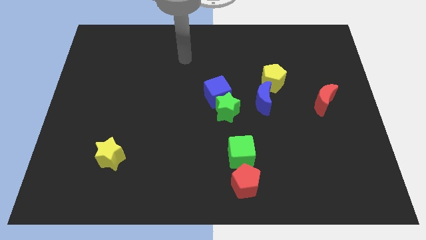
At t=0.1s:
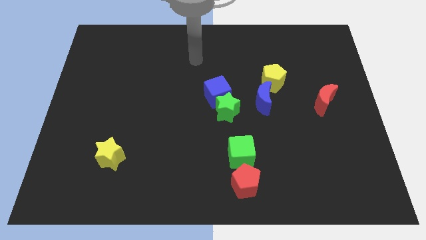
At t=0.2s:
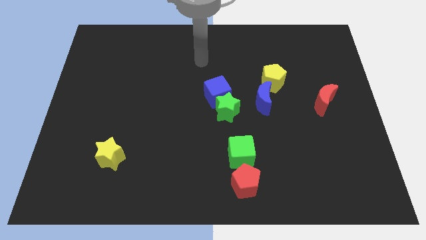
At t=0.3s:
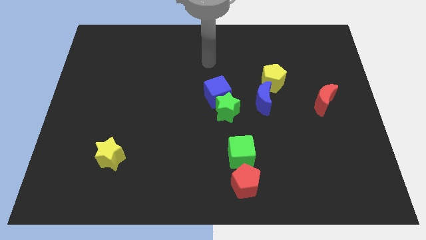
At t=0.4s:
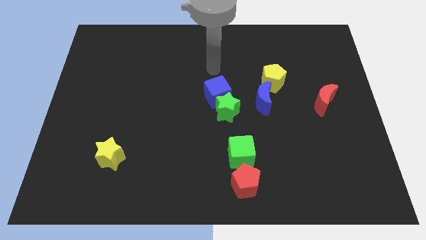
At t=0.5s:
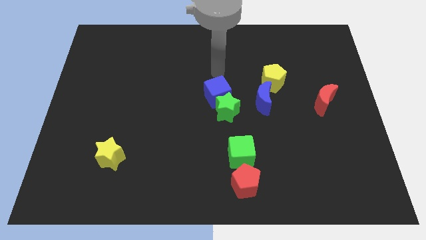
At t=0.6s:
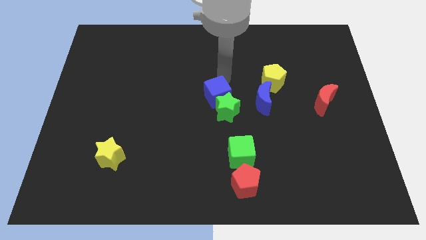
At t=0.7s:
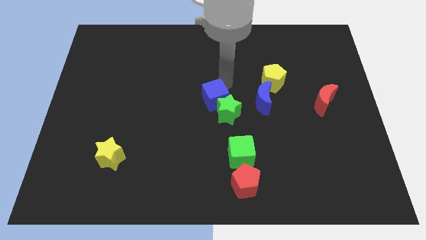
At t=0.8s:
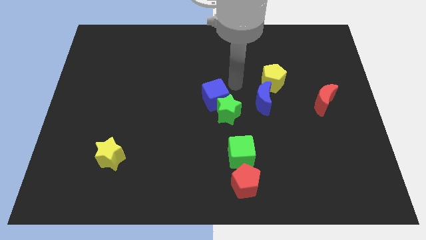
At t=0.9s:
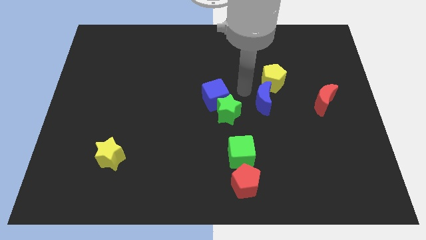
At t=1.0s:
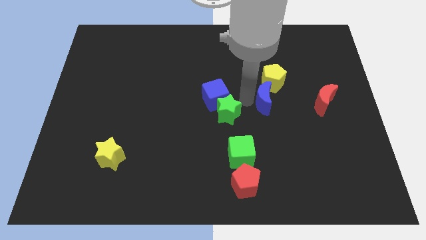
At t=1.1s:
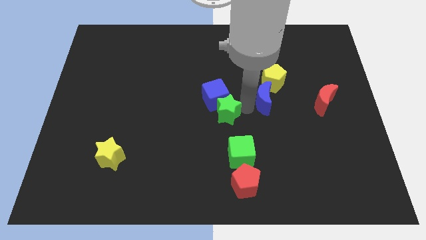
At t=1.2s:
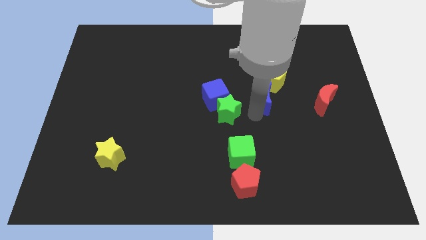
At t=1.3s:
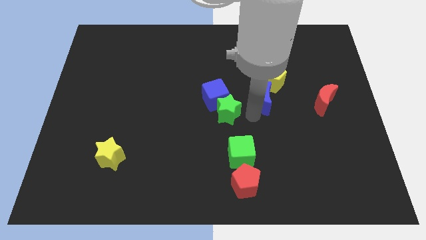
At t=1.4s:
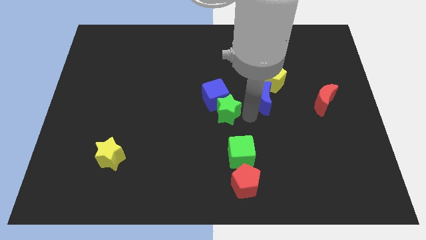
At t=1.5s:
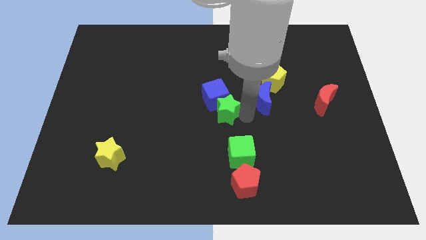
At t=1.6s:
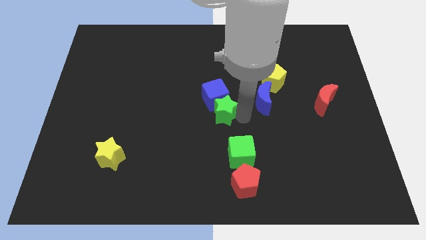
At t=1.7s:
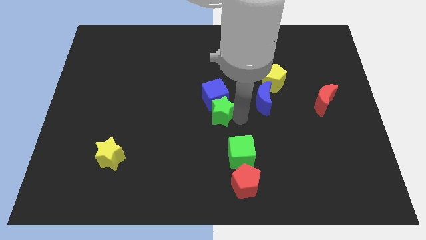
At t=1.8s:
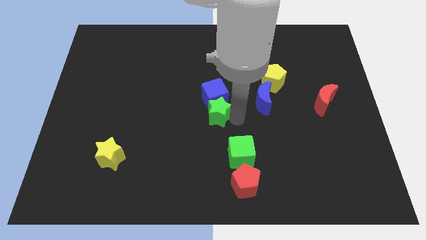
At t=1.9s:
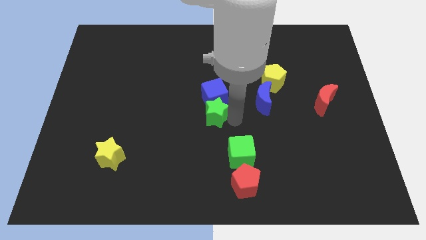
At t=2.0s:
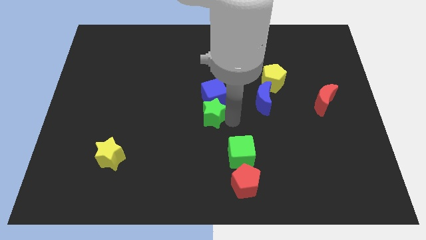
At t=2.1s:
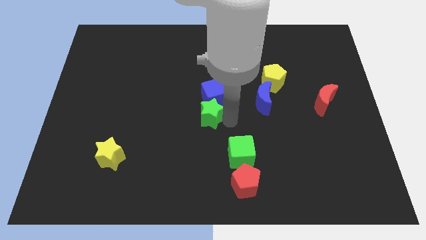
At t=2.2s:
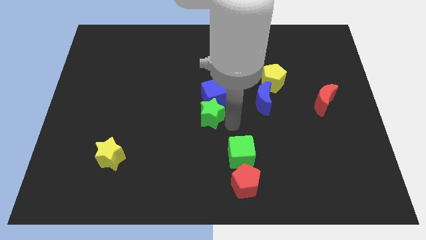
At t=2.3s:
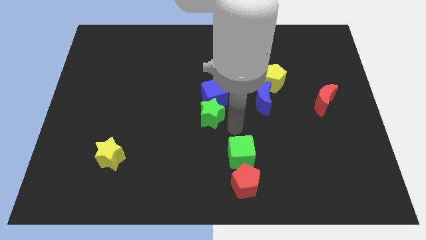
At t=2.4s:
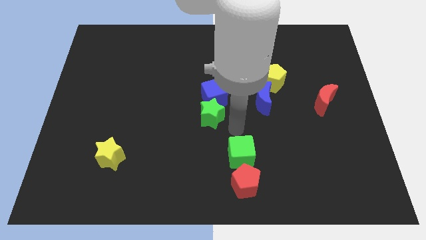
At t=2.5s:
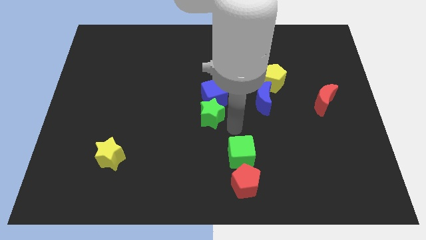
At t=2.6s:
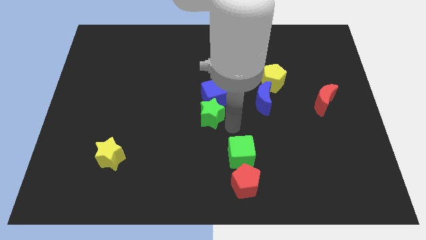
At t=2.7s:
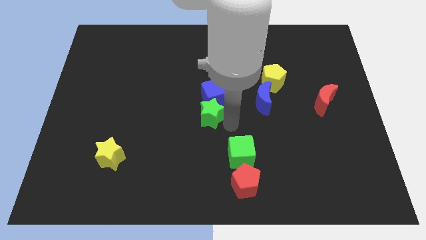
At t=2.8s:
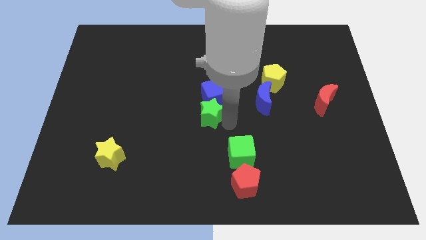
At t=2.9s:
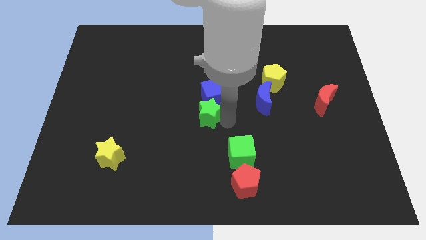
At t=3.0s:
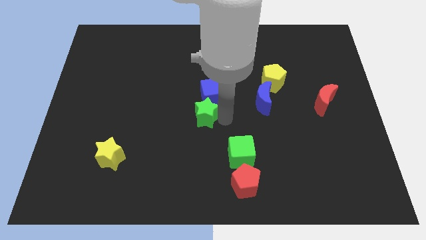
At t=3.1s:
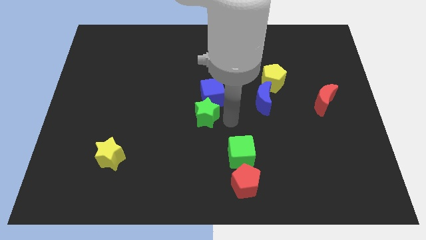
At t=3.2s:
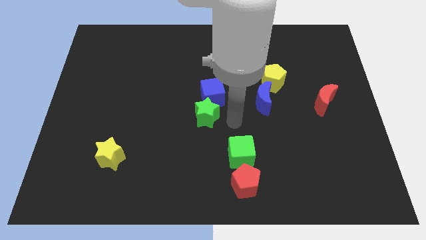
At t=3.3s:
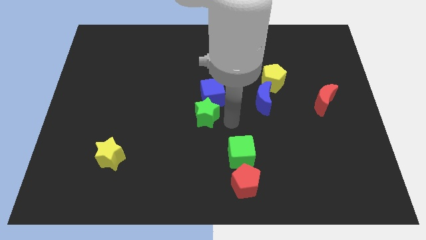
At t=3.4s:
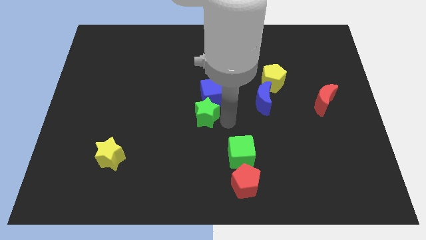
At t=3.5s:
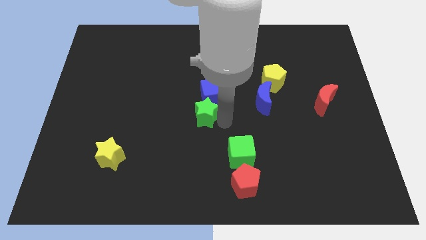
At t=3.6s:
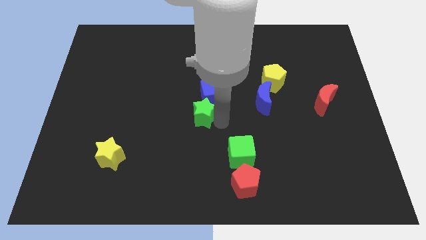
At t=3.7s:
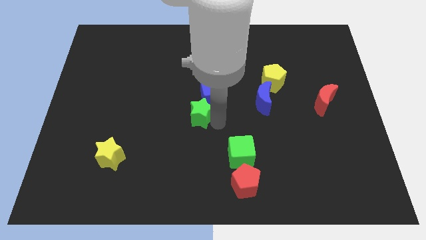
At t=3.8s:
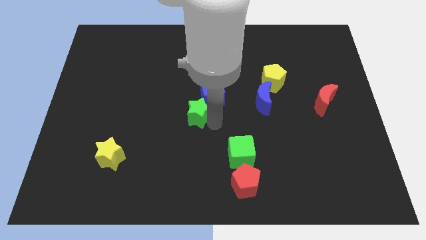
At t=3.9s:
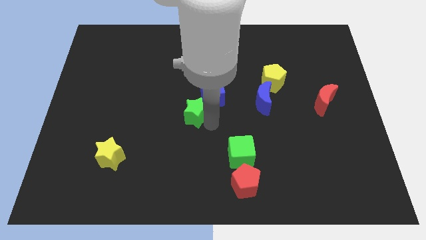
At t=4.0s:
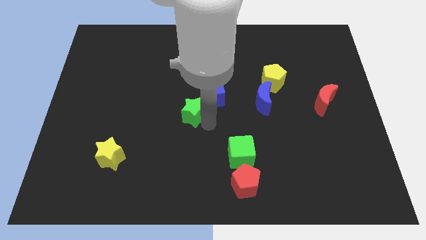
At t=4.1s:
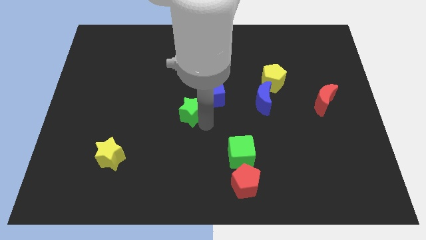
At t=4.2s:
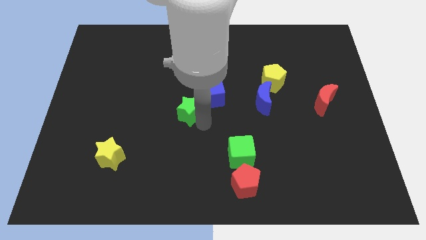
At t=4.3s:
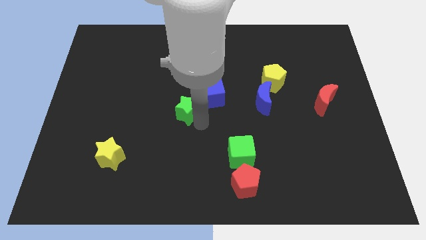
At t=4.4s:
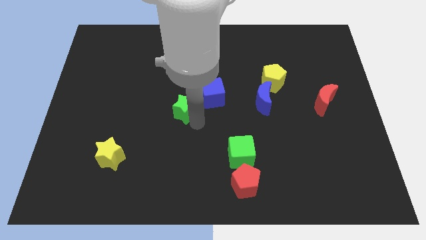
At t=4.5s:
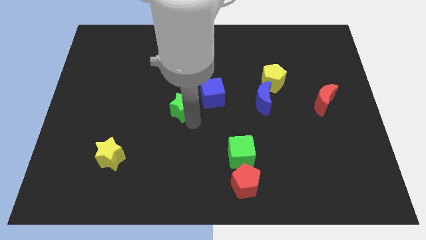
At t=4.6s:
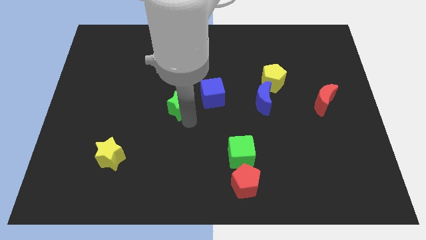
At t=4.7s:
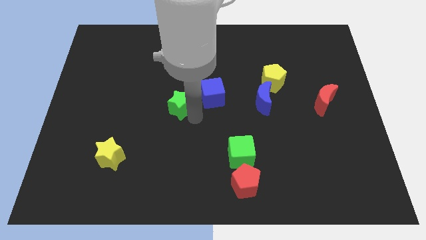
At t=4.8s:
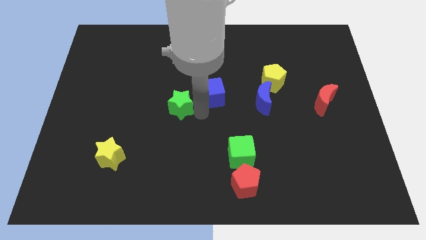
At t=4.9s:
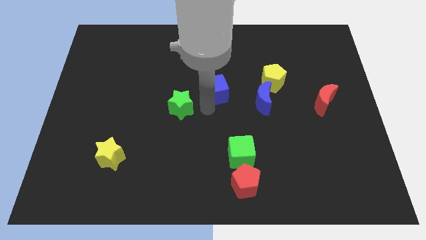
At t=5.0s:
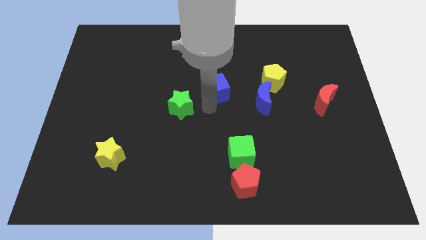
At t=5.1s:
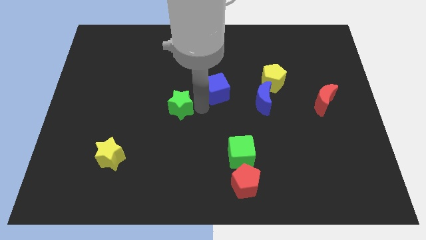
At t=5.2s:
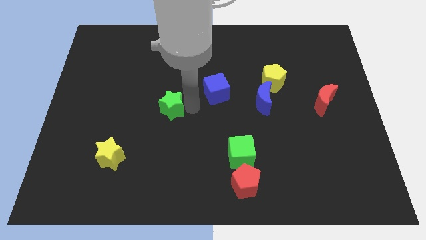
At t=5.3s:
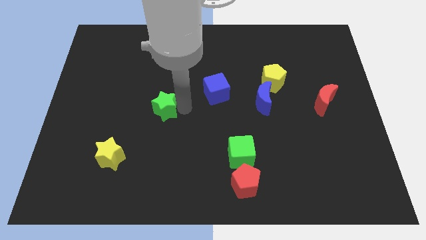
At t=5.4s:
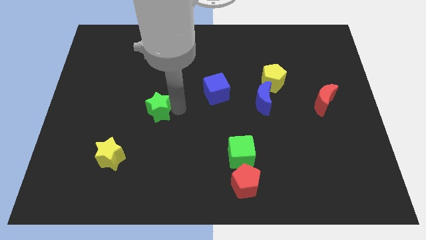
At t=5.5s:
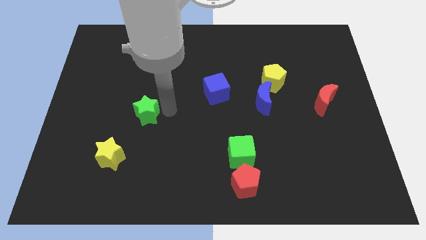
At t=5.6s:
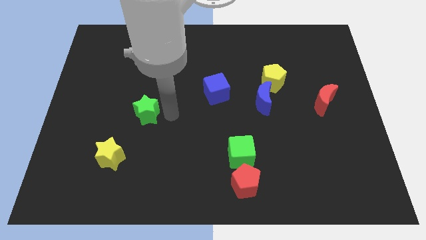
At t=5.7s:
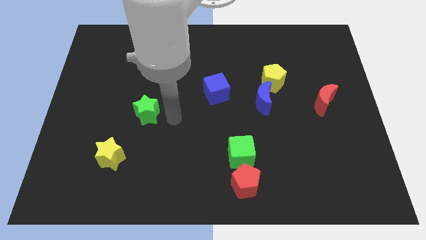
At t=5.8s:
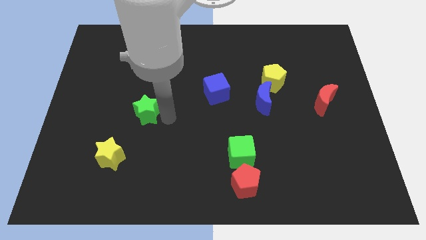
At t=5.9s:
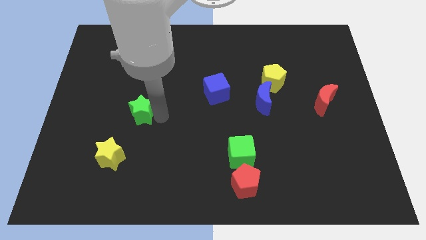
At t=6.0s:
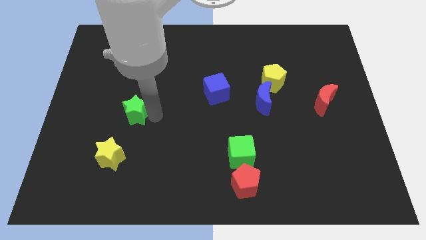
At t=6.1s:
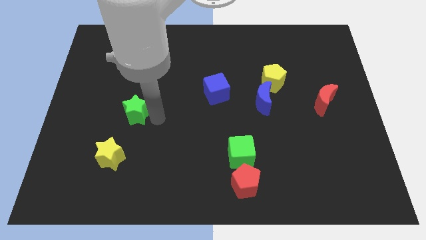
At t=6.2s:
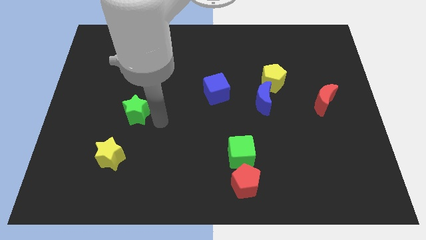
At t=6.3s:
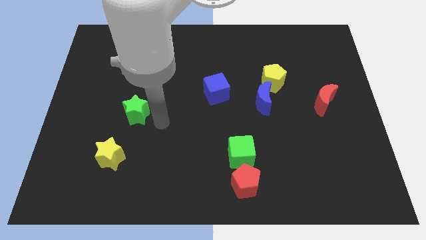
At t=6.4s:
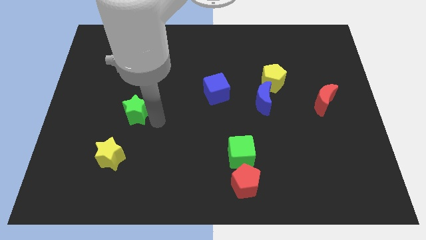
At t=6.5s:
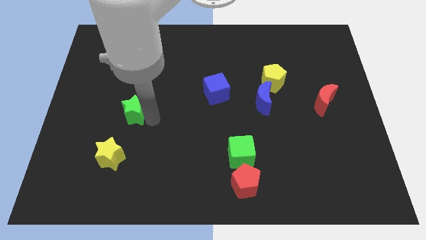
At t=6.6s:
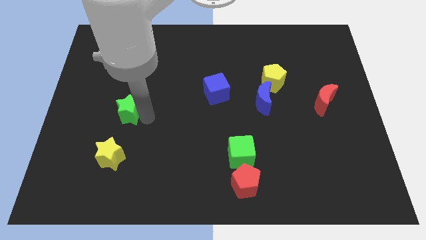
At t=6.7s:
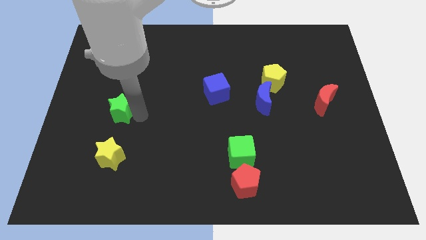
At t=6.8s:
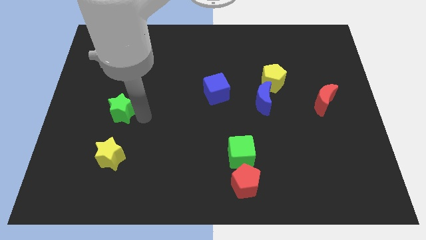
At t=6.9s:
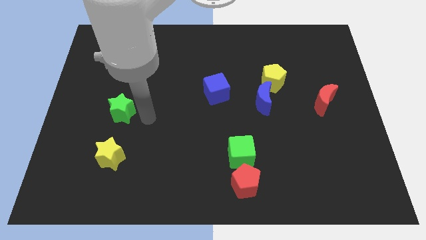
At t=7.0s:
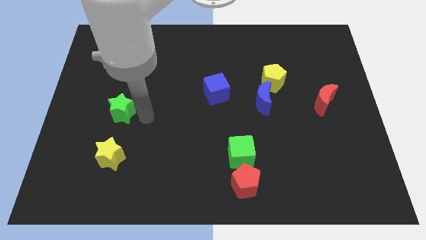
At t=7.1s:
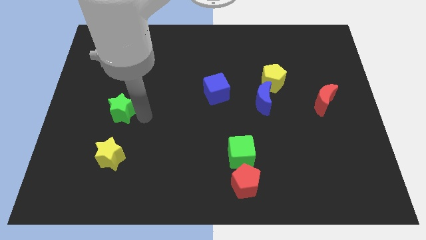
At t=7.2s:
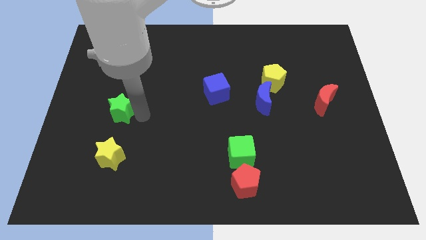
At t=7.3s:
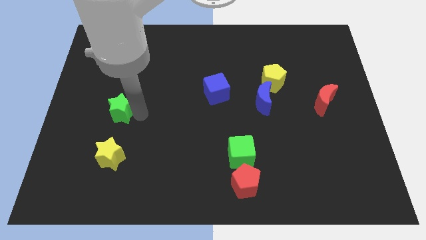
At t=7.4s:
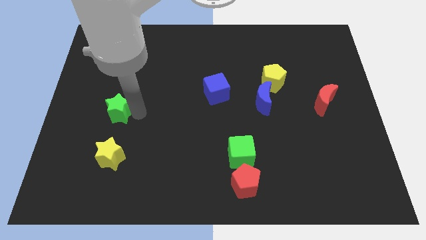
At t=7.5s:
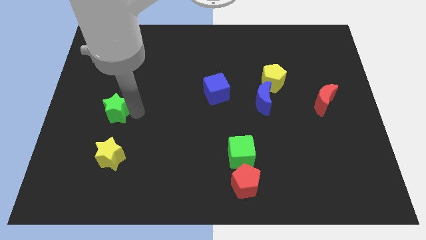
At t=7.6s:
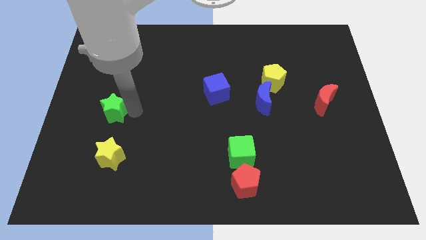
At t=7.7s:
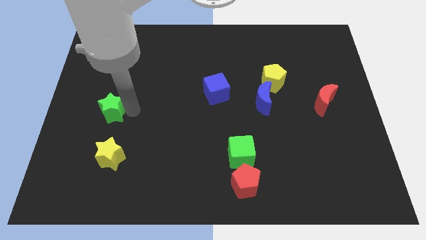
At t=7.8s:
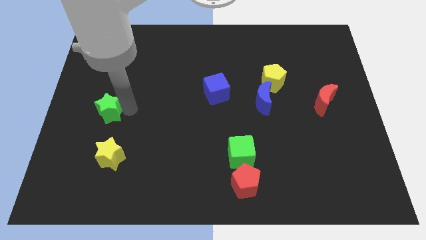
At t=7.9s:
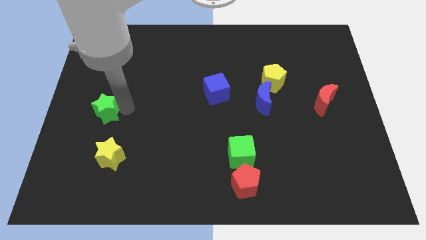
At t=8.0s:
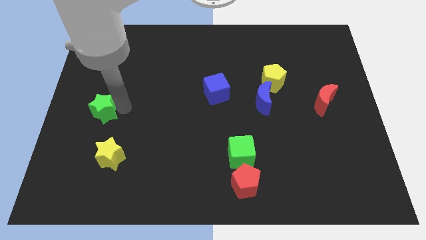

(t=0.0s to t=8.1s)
move the green star to the left side
